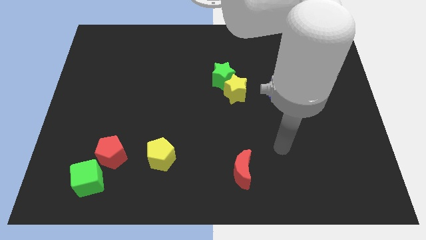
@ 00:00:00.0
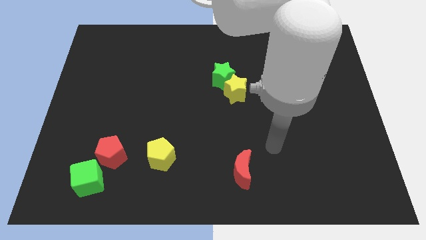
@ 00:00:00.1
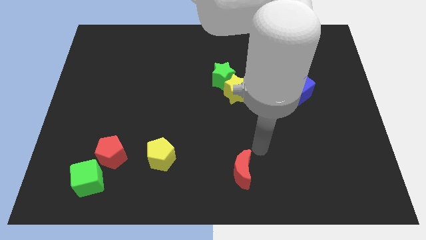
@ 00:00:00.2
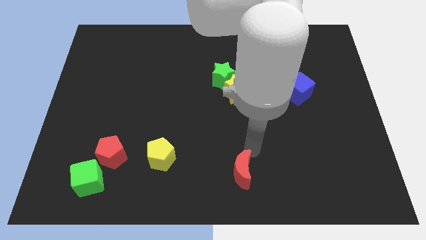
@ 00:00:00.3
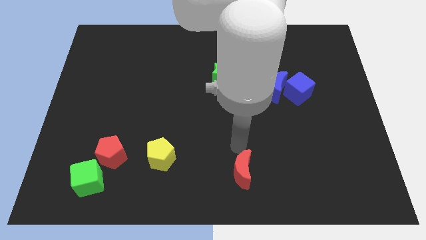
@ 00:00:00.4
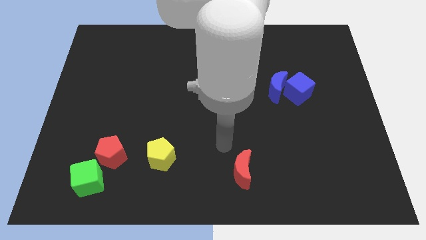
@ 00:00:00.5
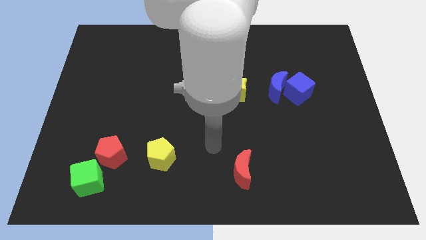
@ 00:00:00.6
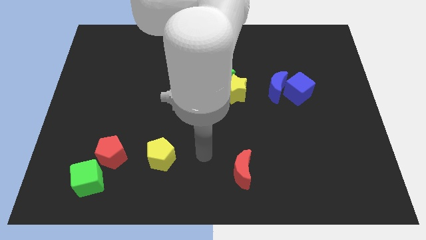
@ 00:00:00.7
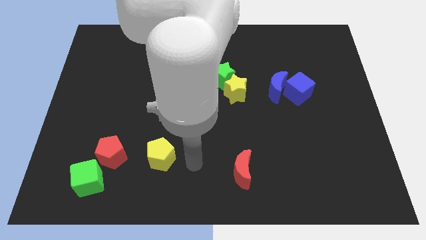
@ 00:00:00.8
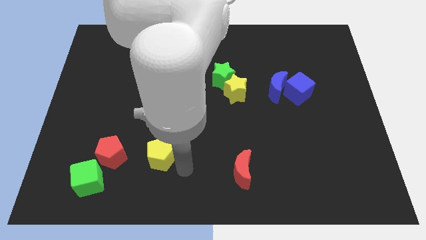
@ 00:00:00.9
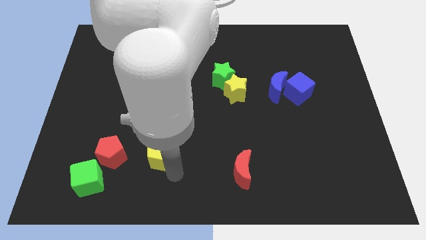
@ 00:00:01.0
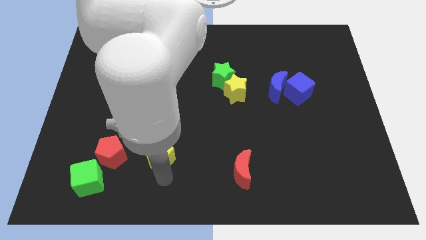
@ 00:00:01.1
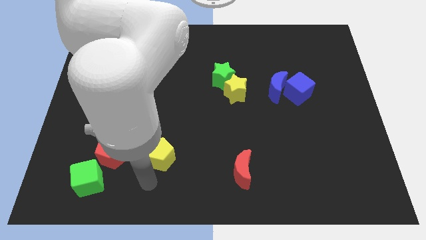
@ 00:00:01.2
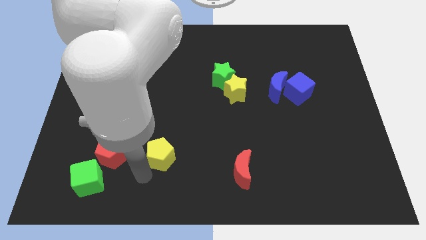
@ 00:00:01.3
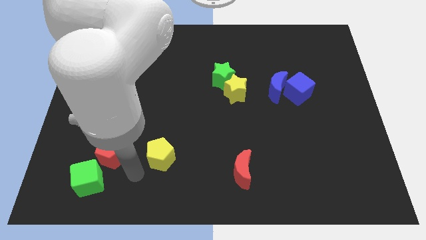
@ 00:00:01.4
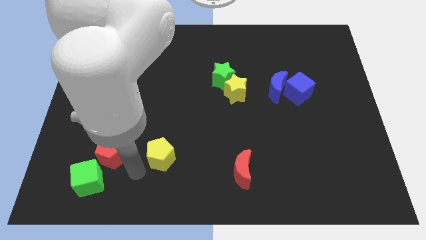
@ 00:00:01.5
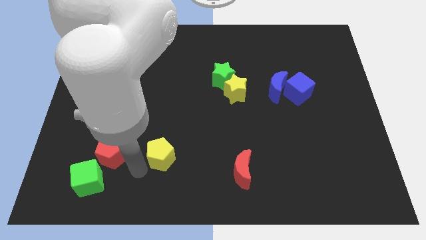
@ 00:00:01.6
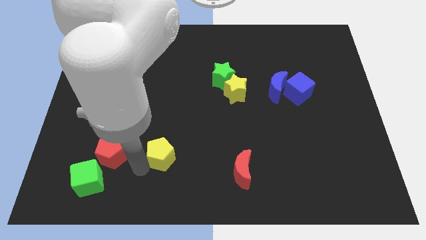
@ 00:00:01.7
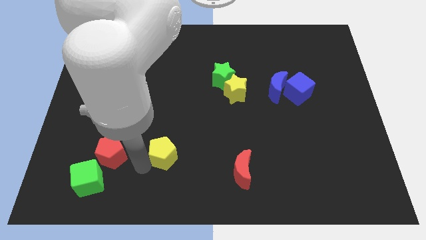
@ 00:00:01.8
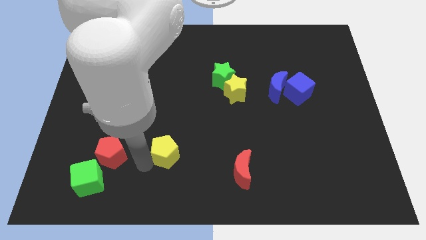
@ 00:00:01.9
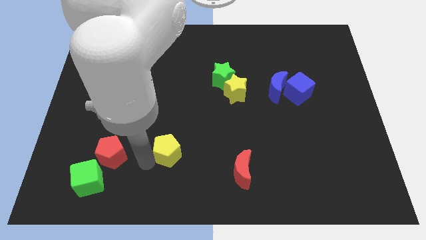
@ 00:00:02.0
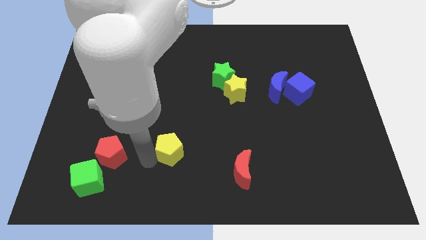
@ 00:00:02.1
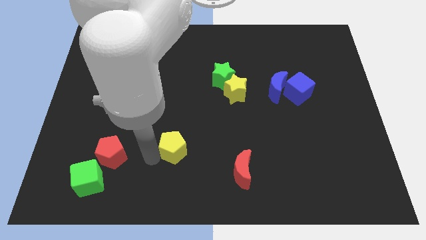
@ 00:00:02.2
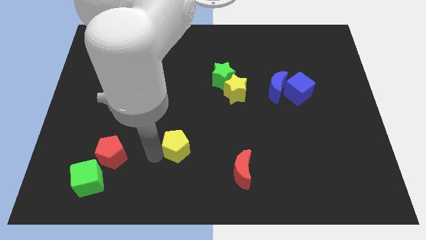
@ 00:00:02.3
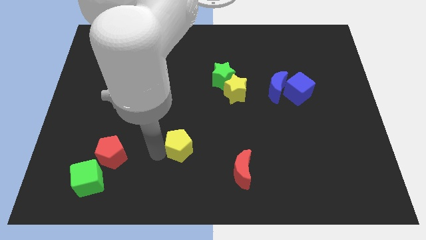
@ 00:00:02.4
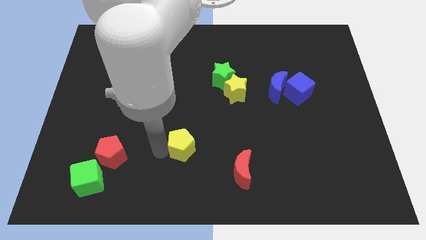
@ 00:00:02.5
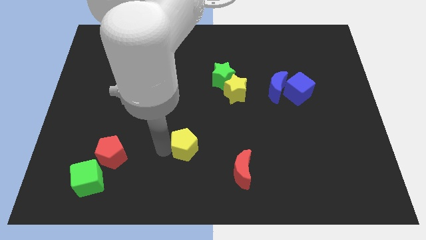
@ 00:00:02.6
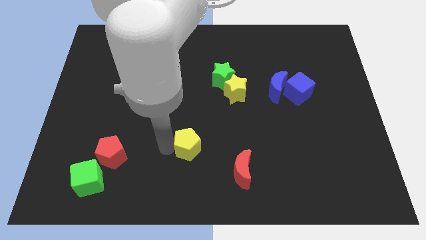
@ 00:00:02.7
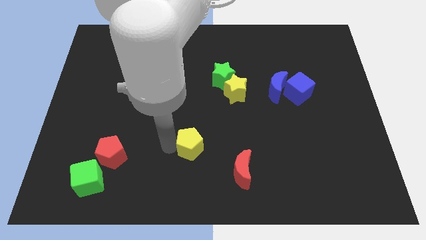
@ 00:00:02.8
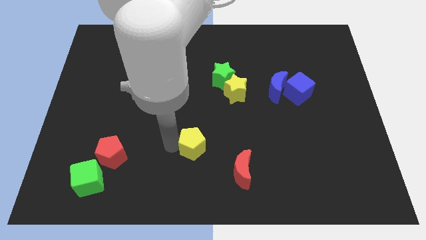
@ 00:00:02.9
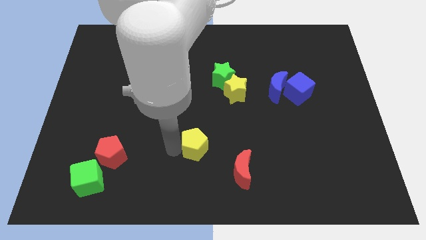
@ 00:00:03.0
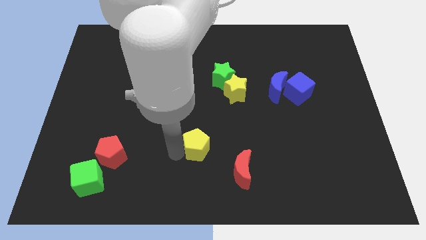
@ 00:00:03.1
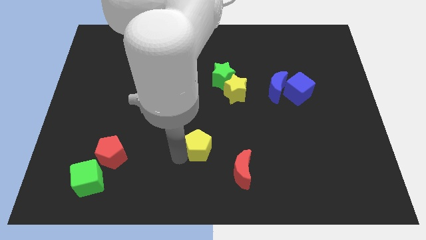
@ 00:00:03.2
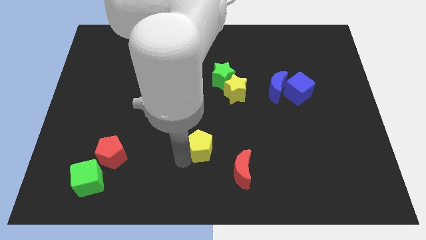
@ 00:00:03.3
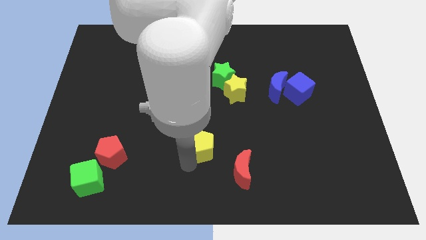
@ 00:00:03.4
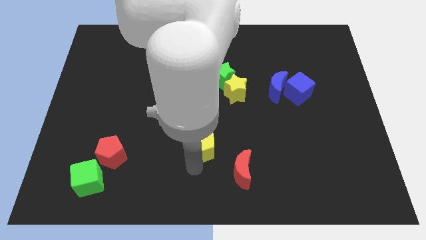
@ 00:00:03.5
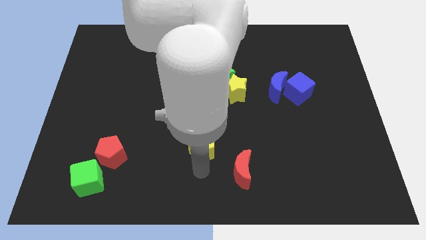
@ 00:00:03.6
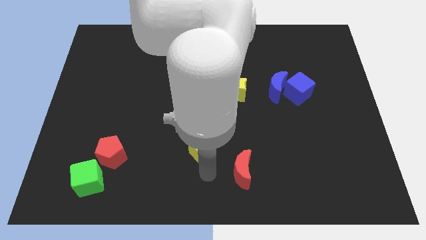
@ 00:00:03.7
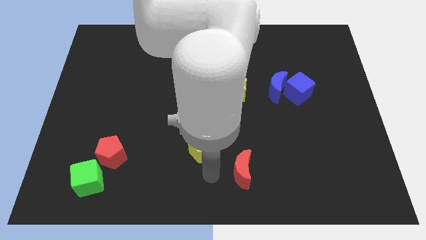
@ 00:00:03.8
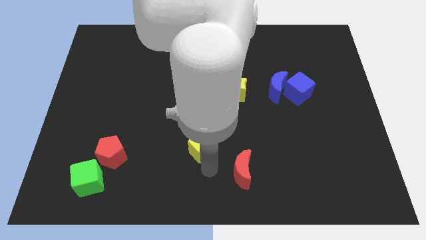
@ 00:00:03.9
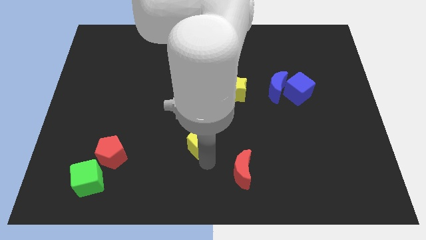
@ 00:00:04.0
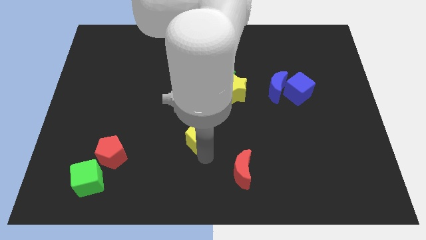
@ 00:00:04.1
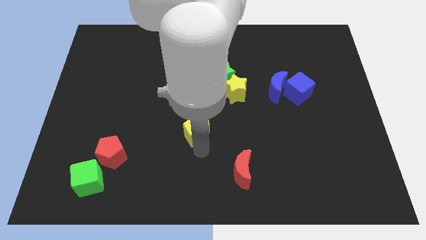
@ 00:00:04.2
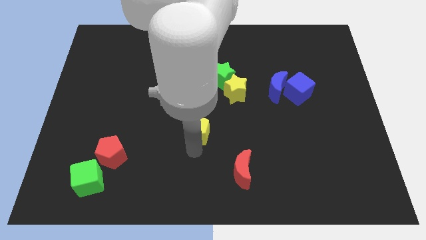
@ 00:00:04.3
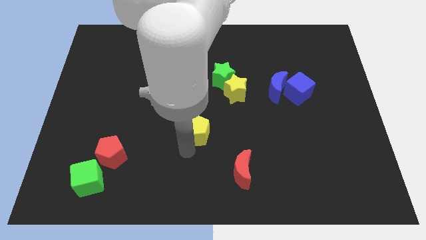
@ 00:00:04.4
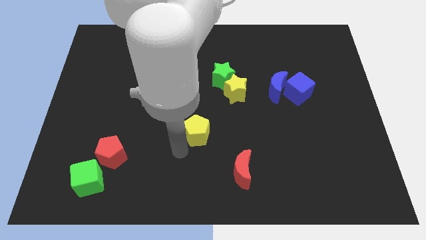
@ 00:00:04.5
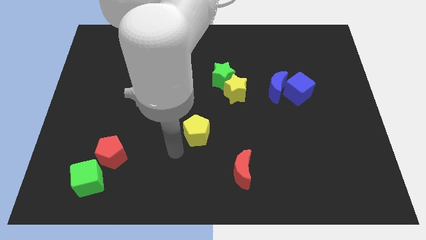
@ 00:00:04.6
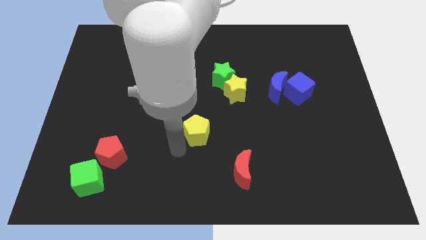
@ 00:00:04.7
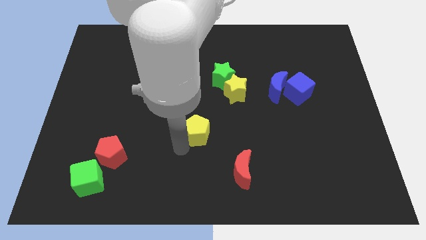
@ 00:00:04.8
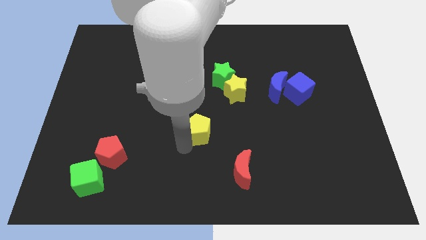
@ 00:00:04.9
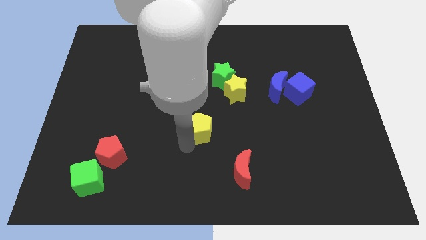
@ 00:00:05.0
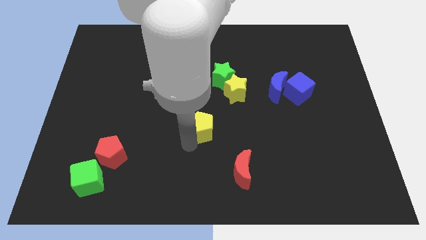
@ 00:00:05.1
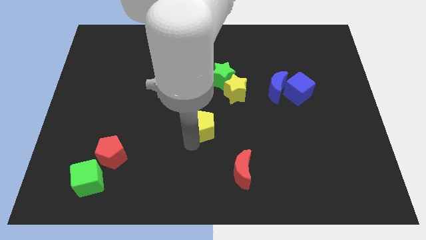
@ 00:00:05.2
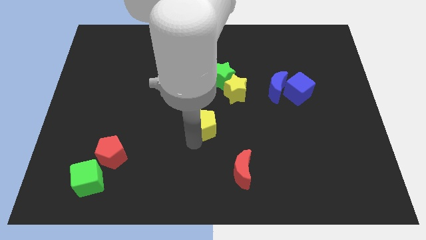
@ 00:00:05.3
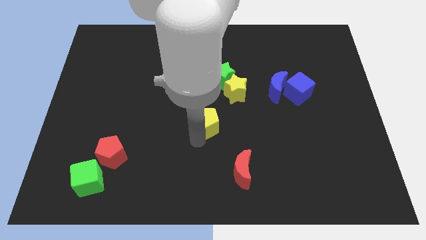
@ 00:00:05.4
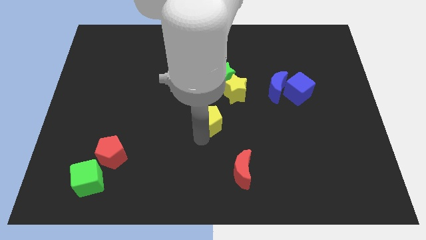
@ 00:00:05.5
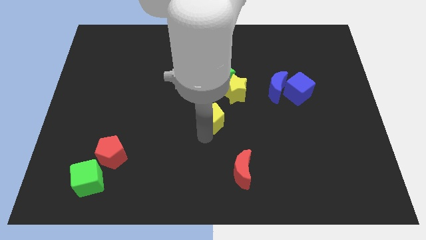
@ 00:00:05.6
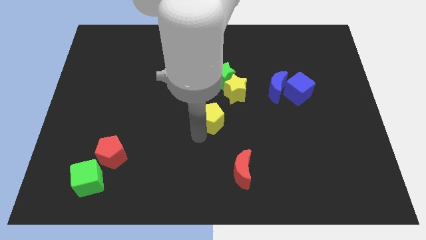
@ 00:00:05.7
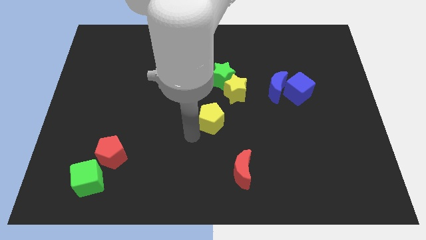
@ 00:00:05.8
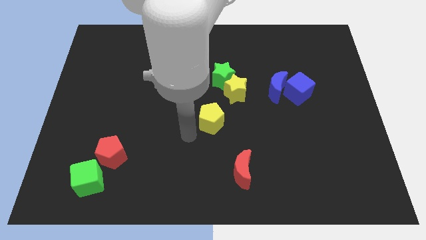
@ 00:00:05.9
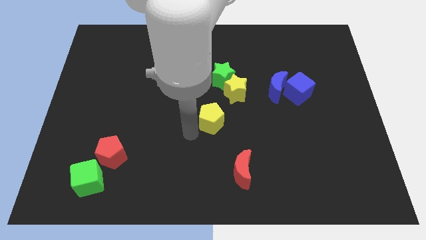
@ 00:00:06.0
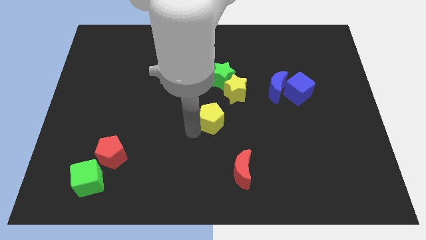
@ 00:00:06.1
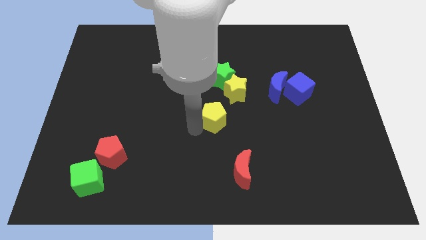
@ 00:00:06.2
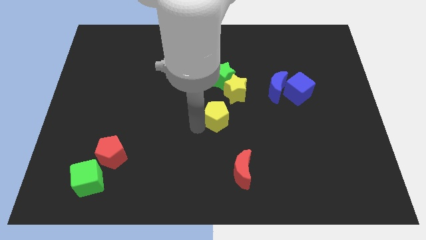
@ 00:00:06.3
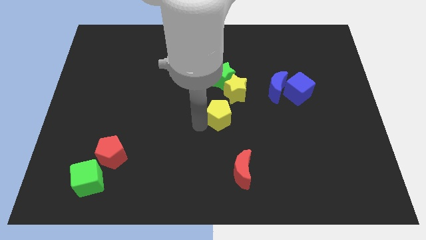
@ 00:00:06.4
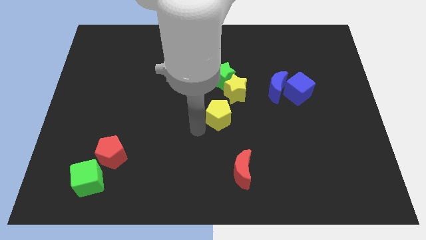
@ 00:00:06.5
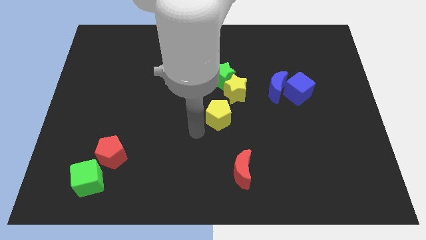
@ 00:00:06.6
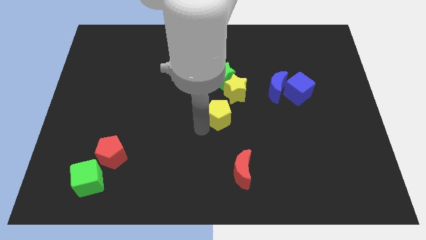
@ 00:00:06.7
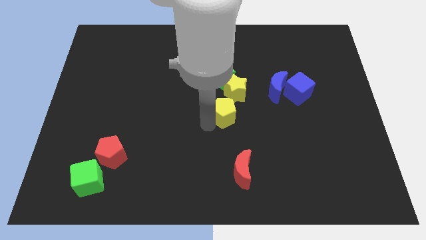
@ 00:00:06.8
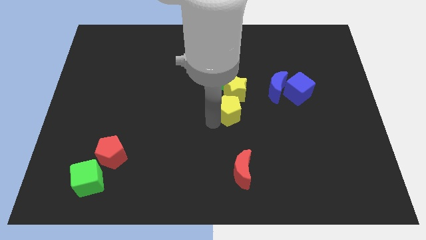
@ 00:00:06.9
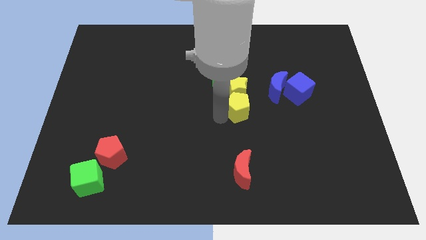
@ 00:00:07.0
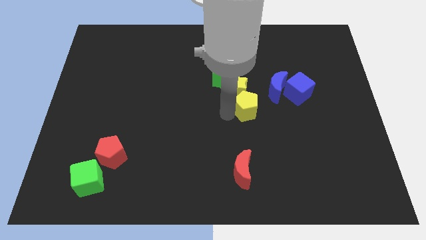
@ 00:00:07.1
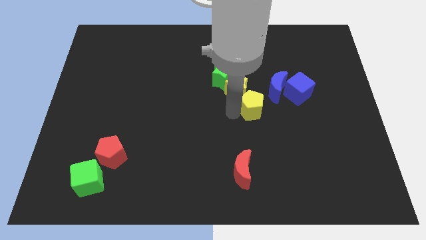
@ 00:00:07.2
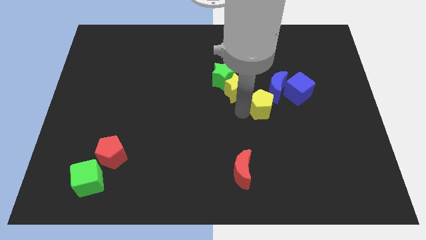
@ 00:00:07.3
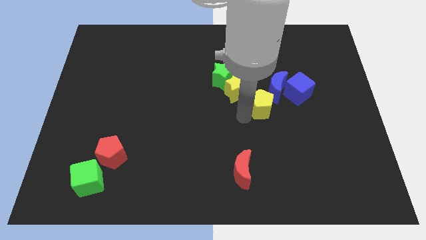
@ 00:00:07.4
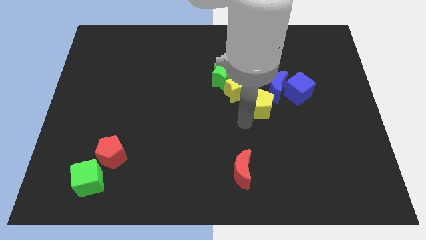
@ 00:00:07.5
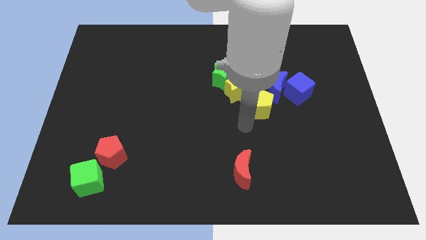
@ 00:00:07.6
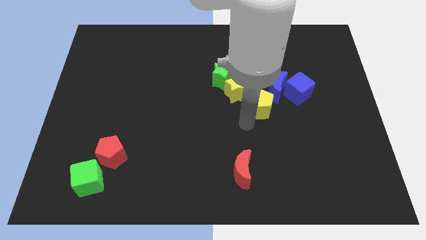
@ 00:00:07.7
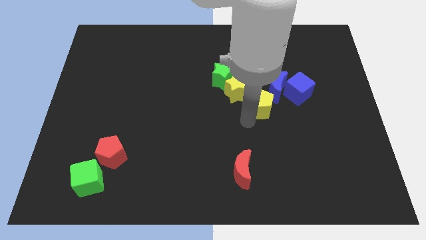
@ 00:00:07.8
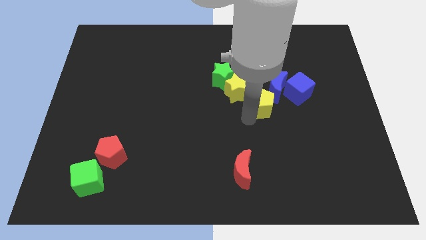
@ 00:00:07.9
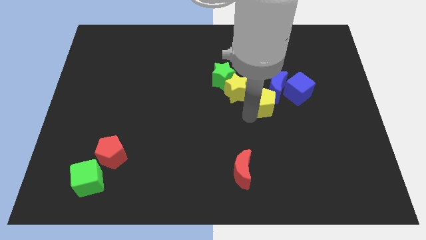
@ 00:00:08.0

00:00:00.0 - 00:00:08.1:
push the yellow pentagon close to the blue moon
